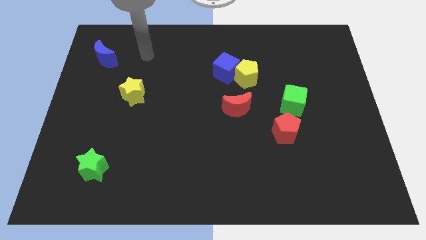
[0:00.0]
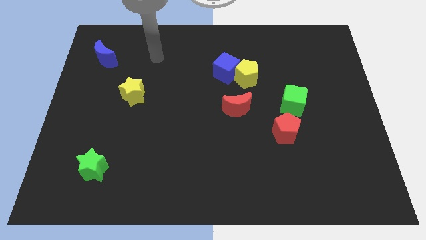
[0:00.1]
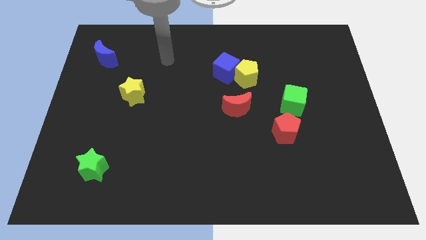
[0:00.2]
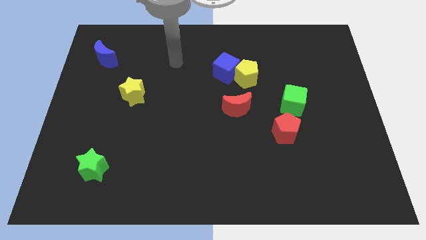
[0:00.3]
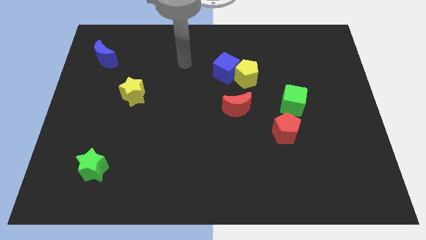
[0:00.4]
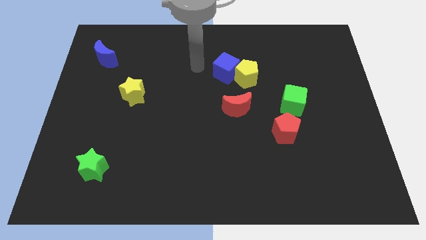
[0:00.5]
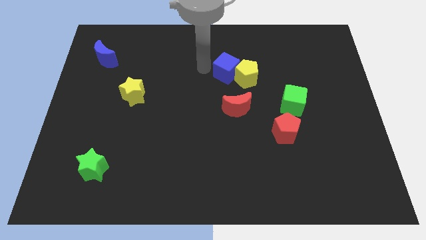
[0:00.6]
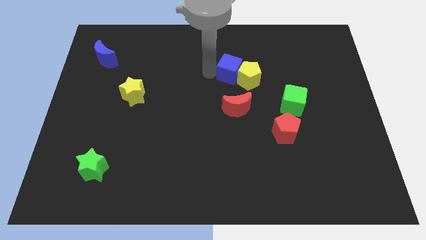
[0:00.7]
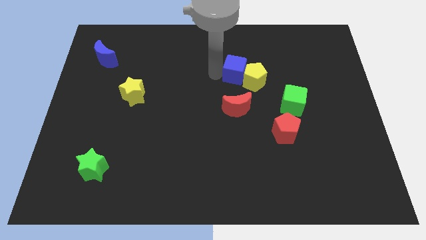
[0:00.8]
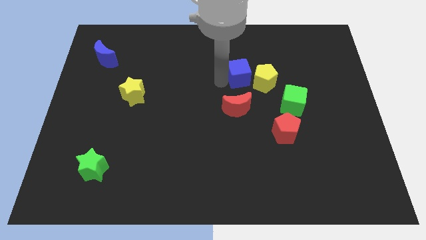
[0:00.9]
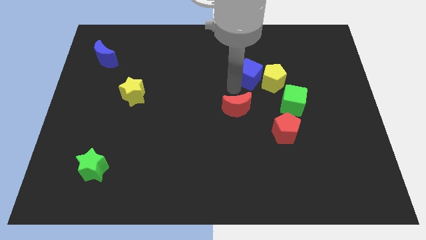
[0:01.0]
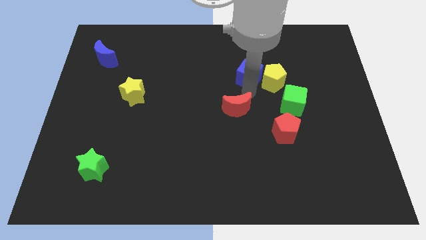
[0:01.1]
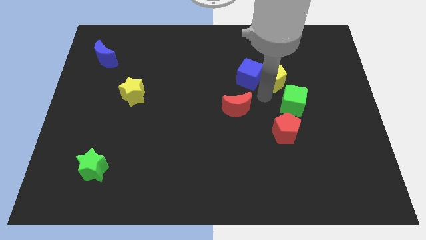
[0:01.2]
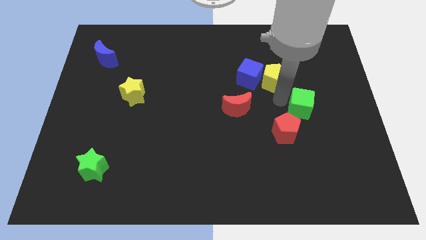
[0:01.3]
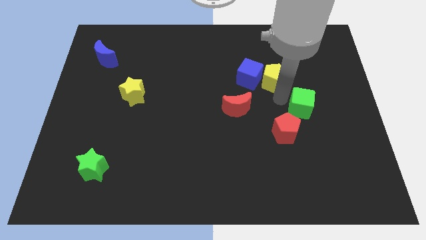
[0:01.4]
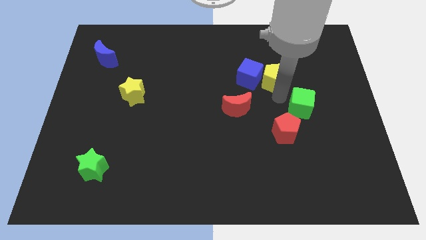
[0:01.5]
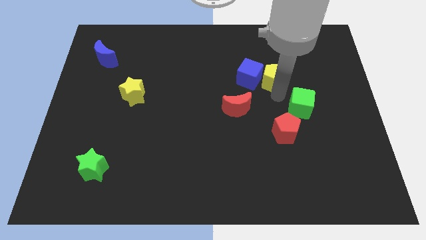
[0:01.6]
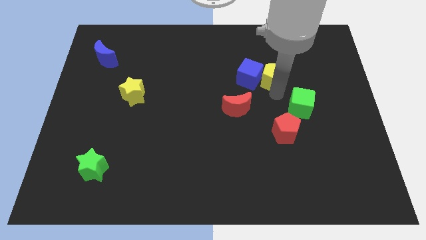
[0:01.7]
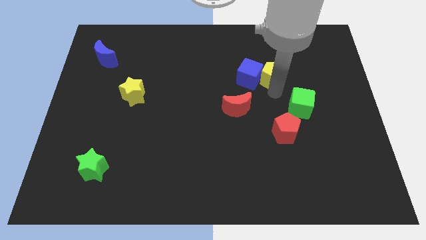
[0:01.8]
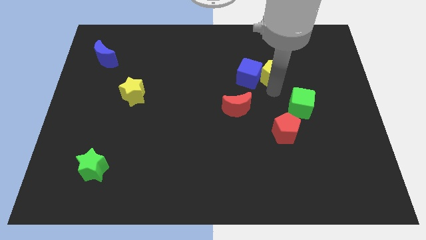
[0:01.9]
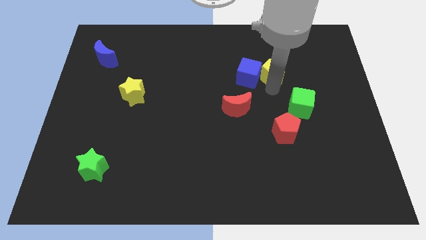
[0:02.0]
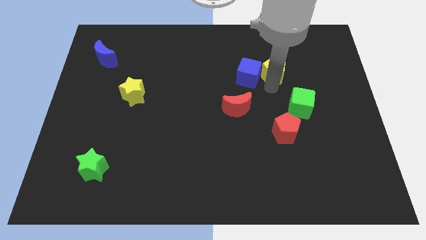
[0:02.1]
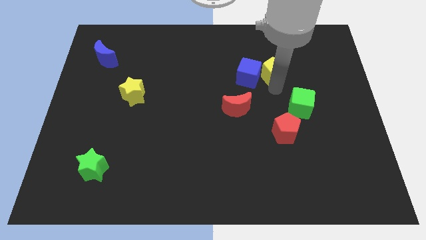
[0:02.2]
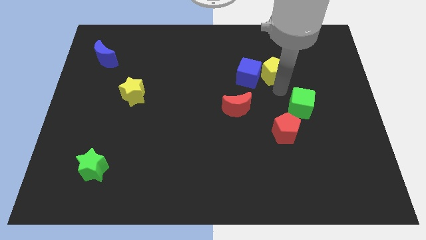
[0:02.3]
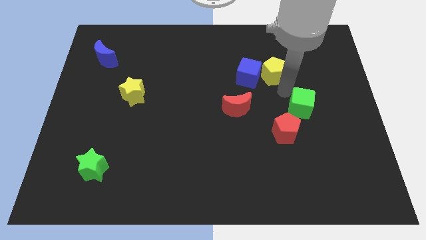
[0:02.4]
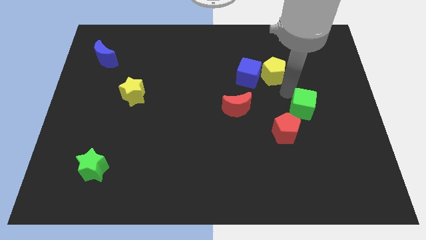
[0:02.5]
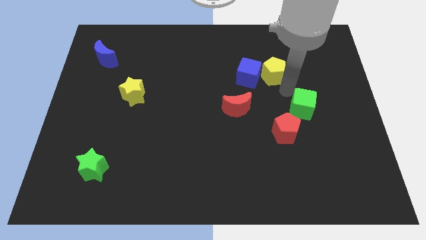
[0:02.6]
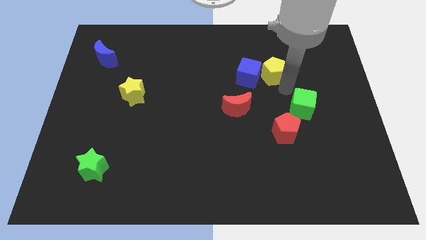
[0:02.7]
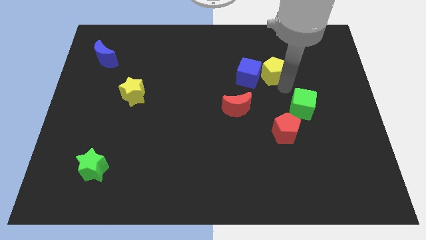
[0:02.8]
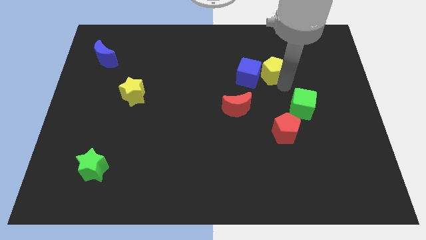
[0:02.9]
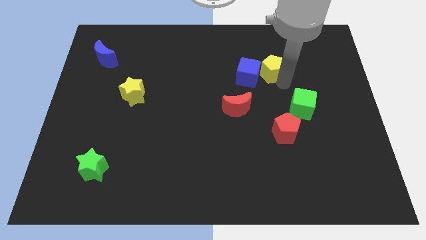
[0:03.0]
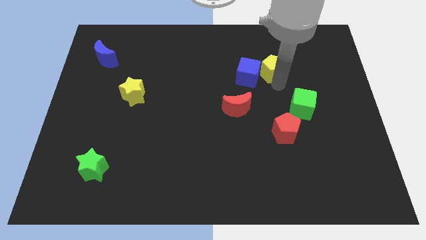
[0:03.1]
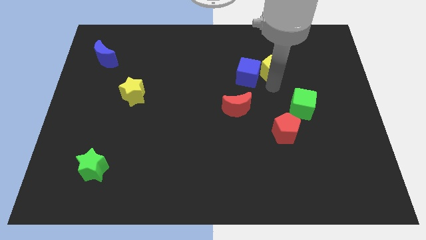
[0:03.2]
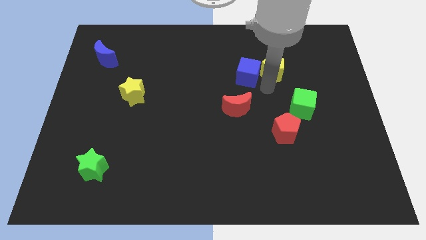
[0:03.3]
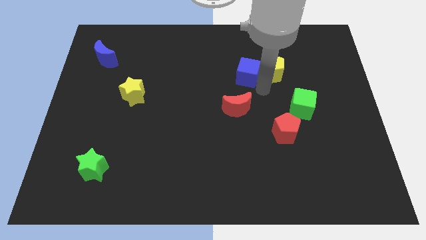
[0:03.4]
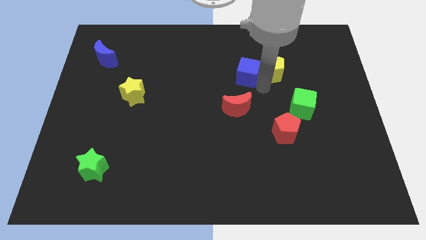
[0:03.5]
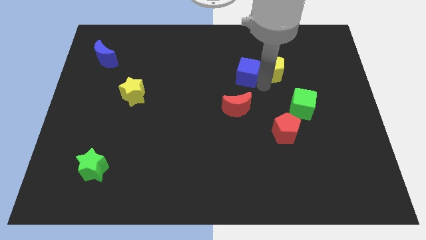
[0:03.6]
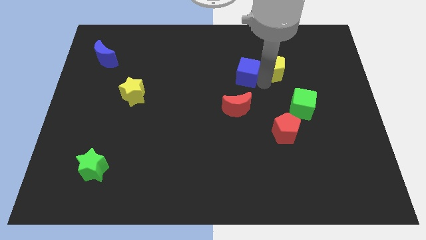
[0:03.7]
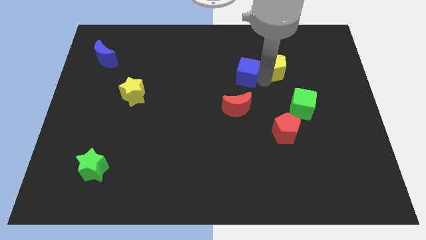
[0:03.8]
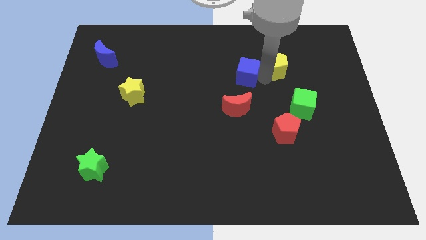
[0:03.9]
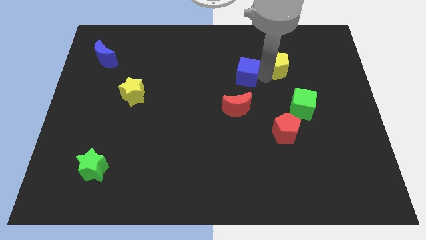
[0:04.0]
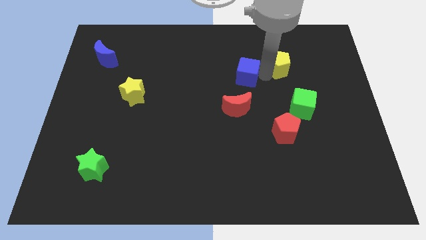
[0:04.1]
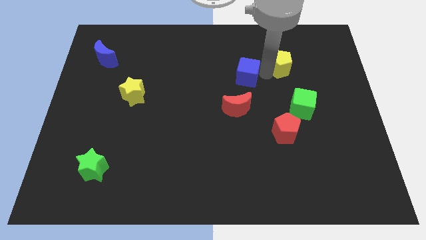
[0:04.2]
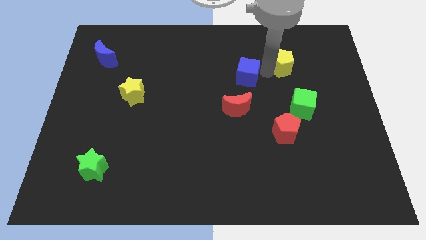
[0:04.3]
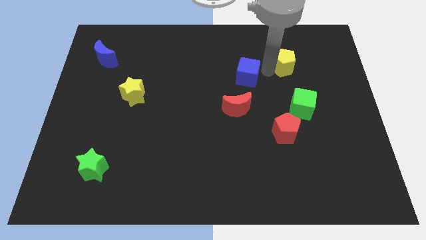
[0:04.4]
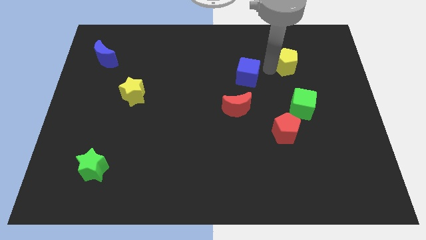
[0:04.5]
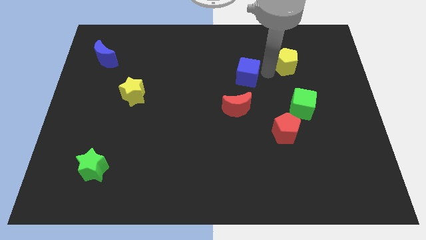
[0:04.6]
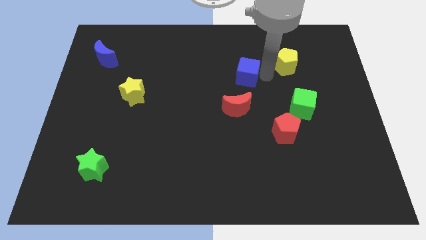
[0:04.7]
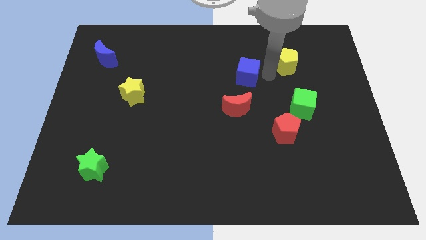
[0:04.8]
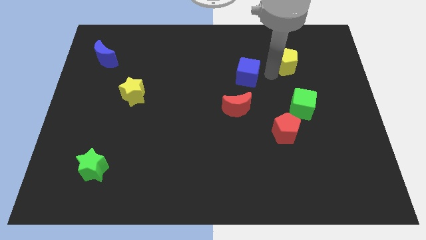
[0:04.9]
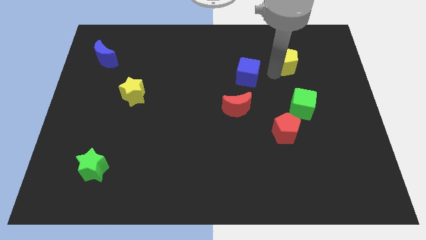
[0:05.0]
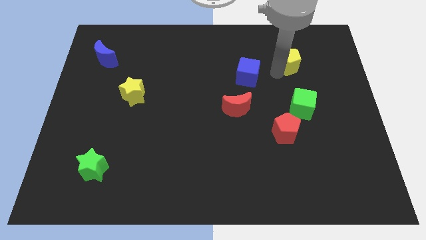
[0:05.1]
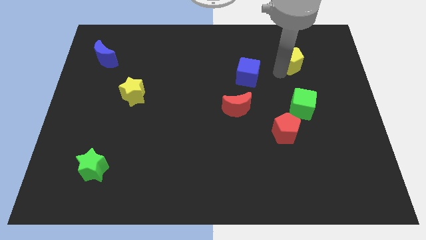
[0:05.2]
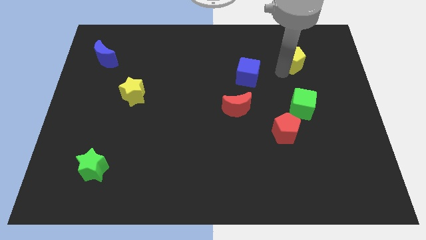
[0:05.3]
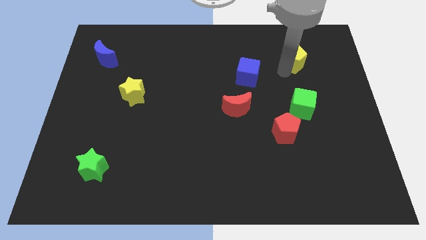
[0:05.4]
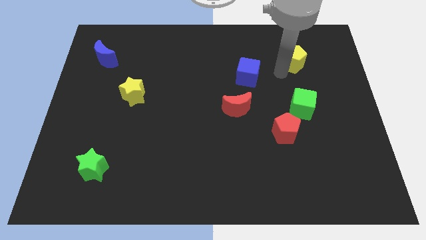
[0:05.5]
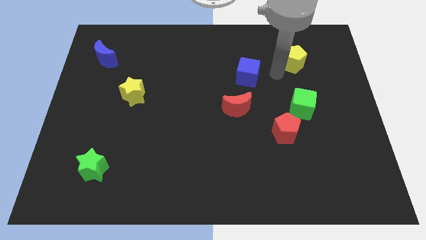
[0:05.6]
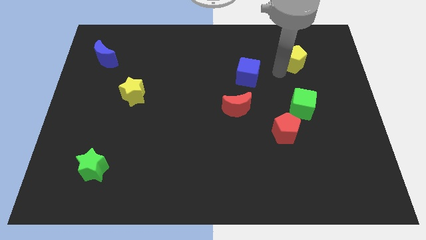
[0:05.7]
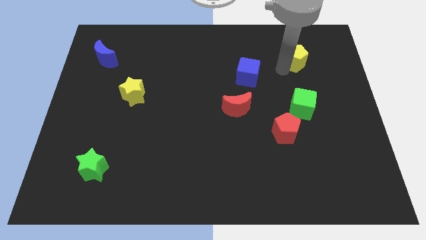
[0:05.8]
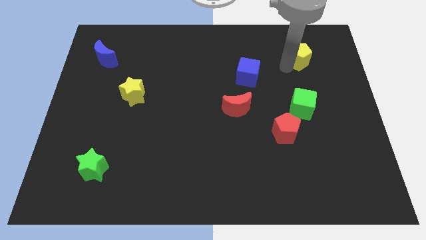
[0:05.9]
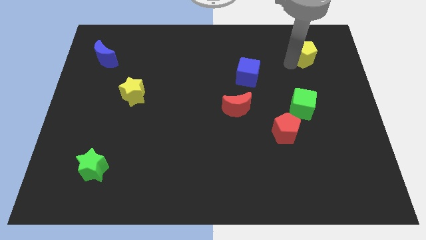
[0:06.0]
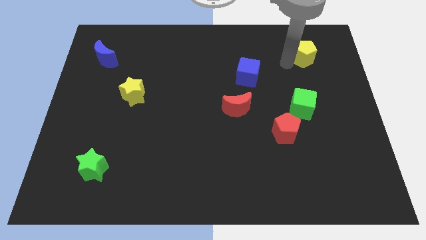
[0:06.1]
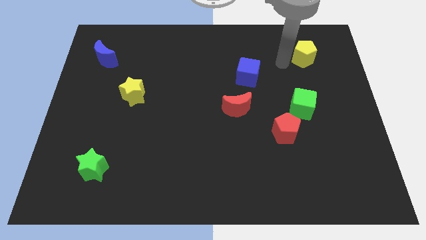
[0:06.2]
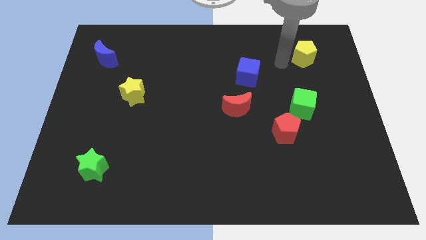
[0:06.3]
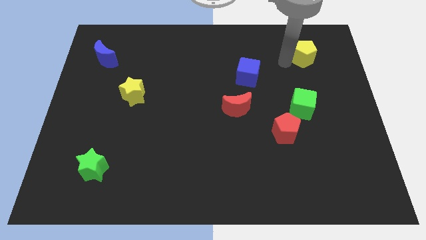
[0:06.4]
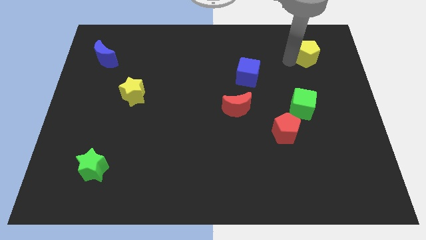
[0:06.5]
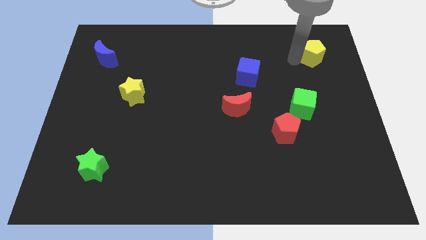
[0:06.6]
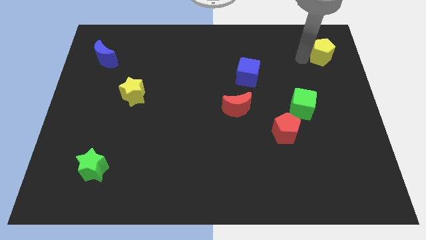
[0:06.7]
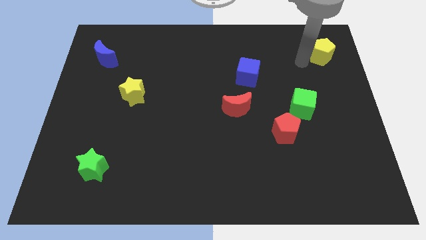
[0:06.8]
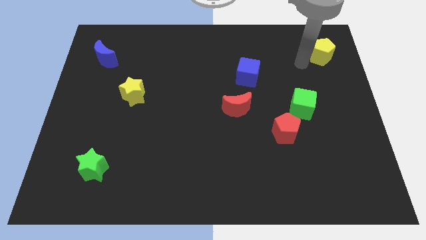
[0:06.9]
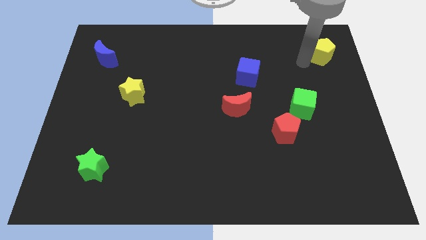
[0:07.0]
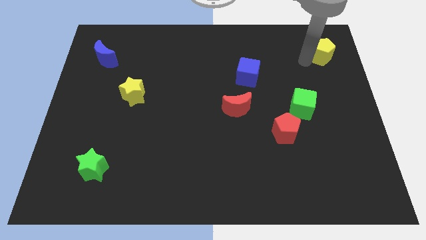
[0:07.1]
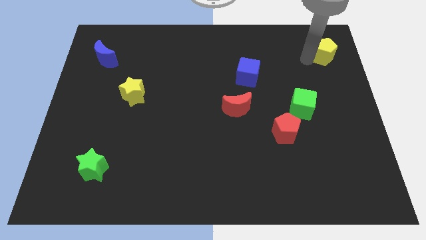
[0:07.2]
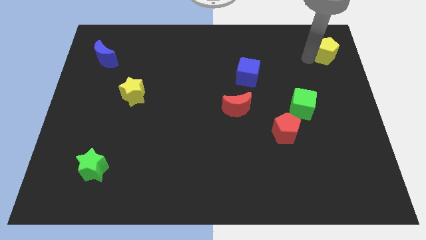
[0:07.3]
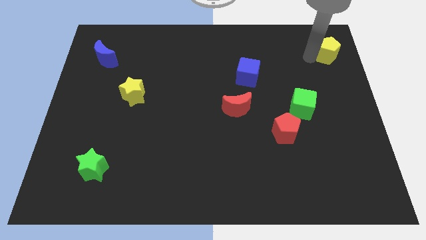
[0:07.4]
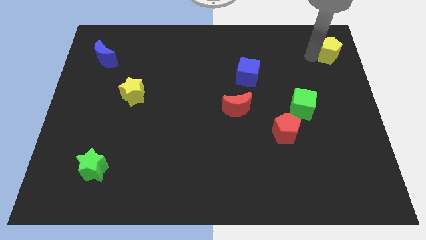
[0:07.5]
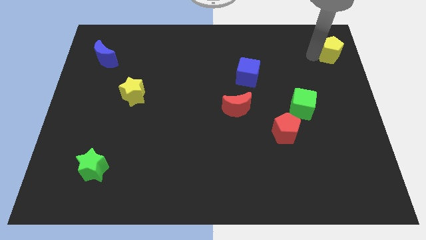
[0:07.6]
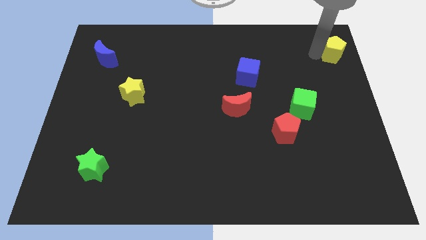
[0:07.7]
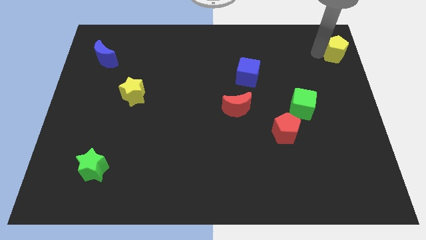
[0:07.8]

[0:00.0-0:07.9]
slide the yellow pentagon to the upper right corner
